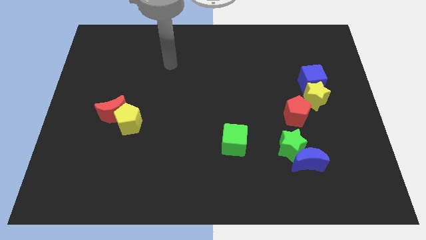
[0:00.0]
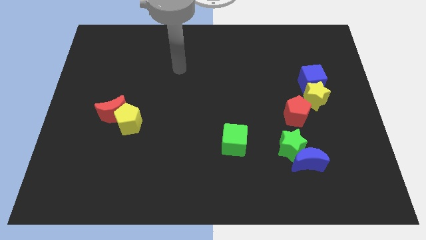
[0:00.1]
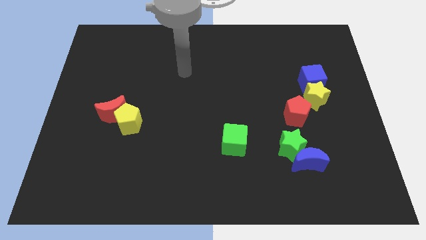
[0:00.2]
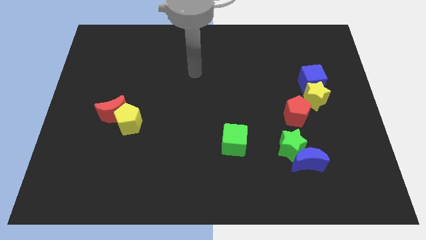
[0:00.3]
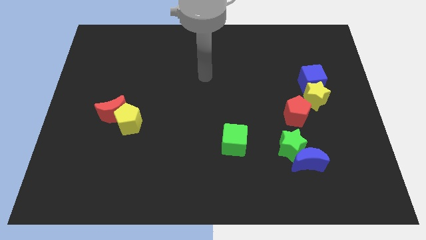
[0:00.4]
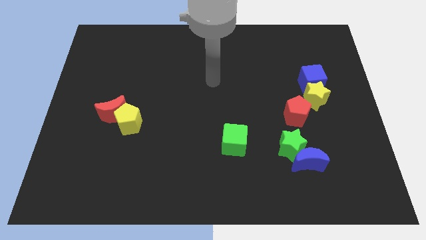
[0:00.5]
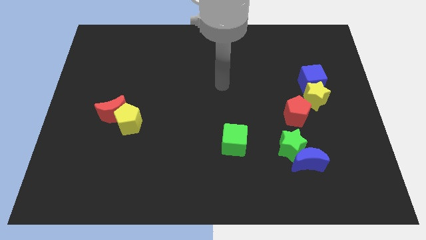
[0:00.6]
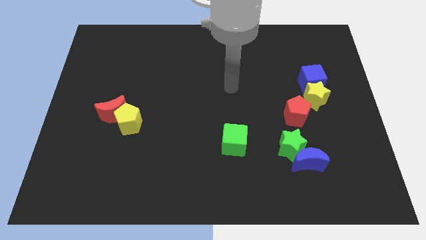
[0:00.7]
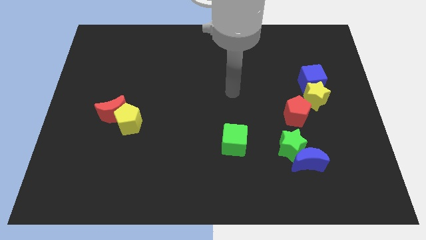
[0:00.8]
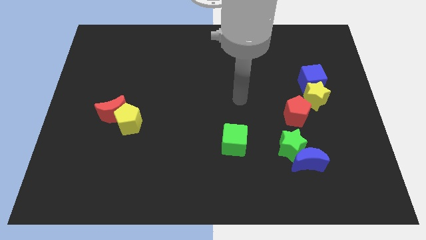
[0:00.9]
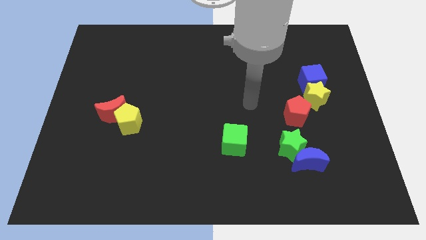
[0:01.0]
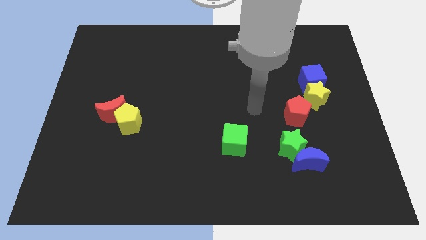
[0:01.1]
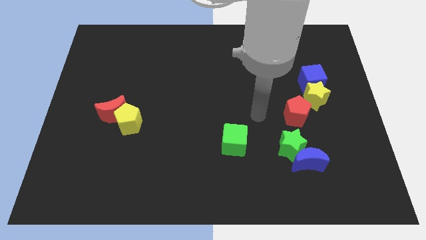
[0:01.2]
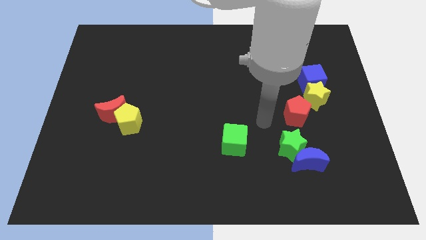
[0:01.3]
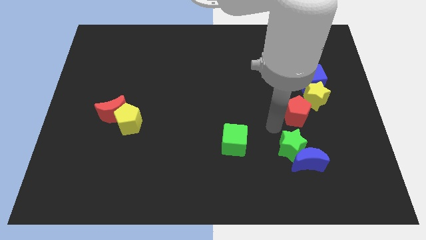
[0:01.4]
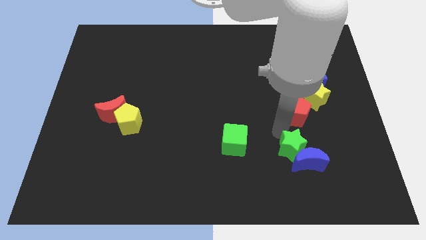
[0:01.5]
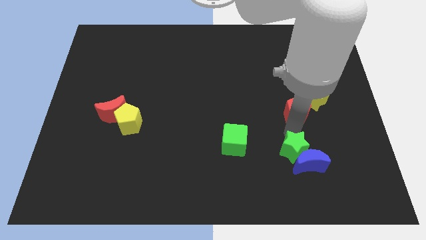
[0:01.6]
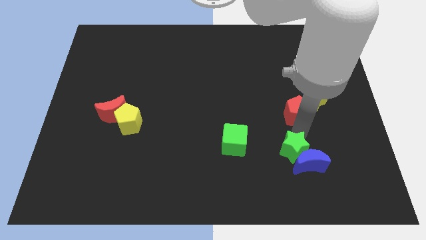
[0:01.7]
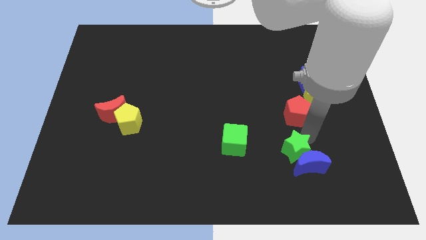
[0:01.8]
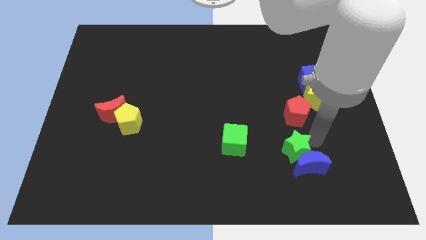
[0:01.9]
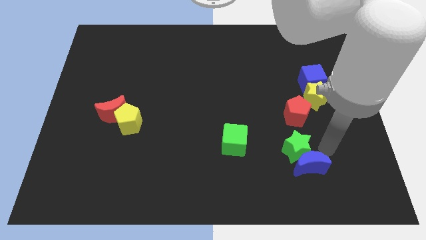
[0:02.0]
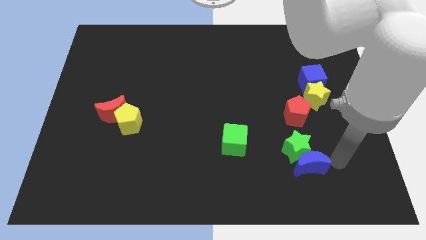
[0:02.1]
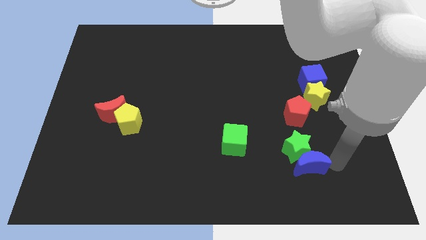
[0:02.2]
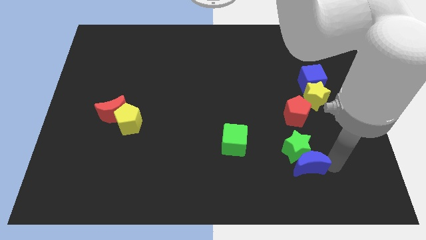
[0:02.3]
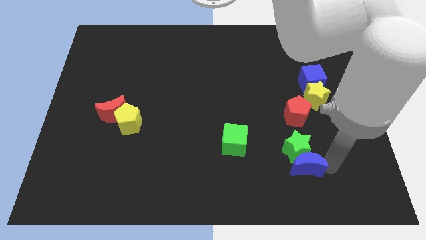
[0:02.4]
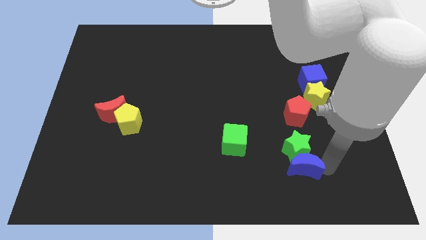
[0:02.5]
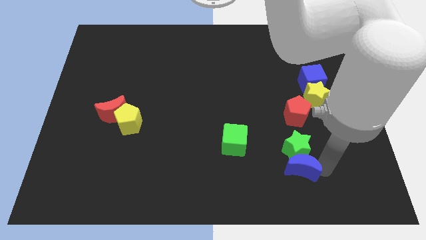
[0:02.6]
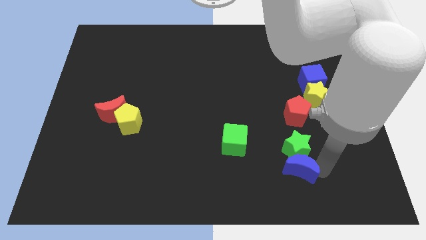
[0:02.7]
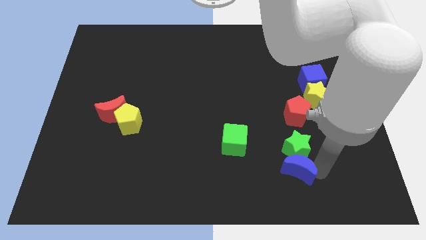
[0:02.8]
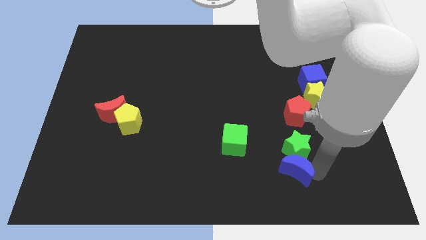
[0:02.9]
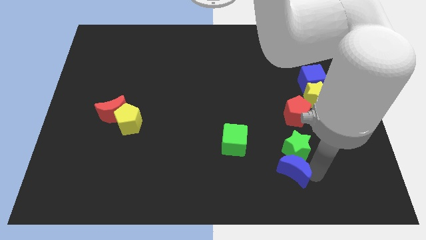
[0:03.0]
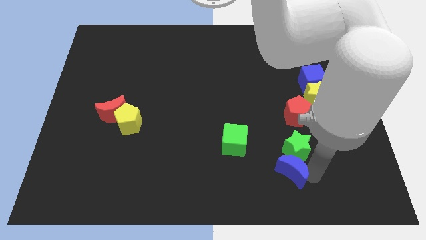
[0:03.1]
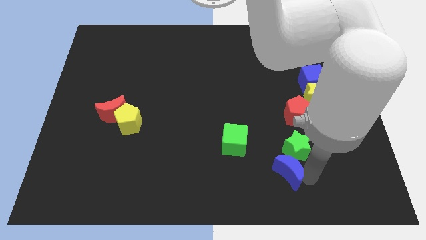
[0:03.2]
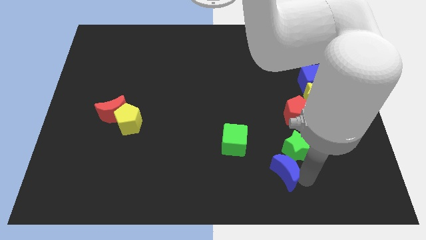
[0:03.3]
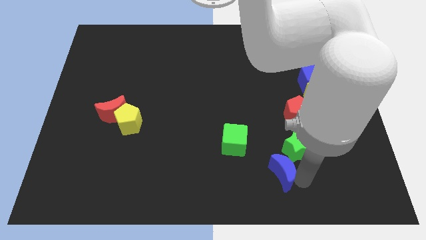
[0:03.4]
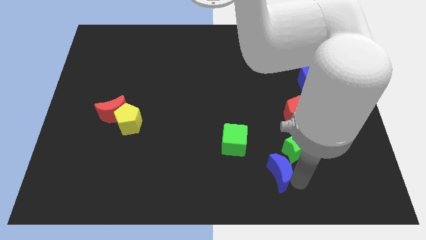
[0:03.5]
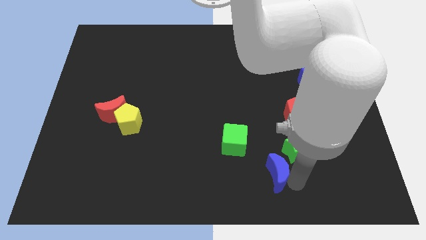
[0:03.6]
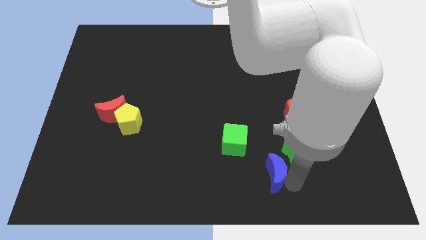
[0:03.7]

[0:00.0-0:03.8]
slide the blue moon slightly left

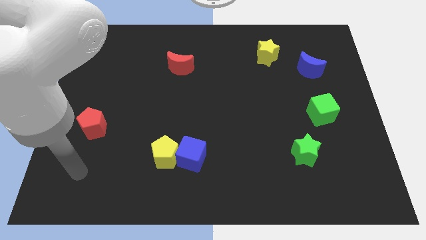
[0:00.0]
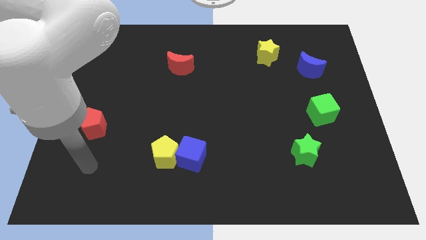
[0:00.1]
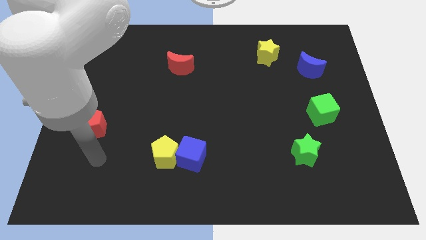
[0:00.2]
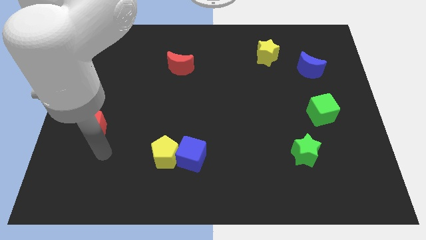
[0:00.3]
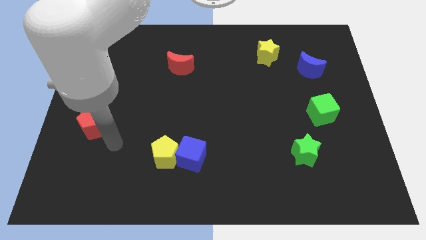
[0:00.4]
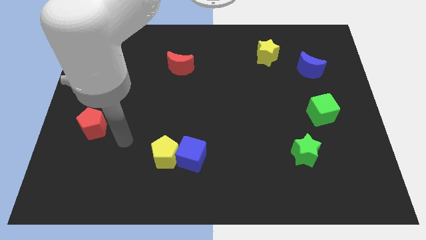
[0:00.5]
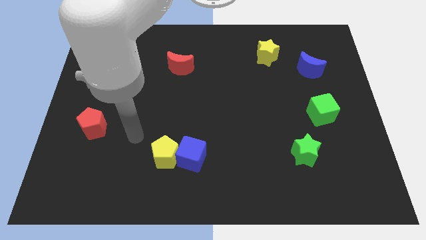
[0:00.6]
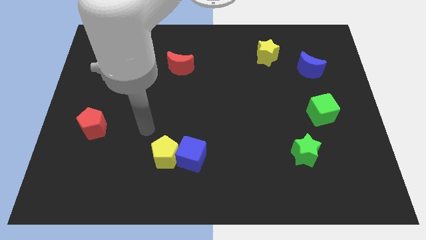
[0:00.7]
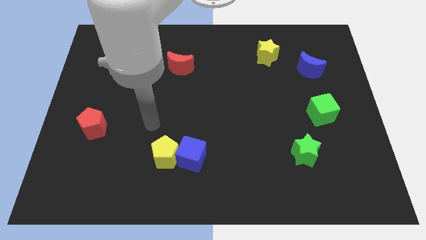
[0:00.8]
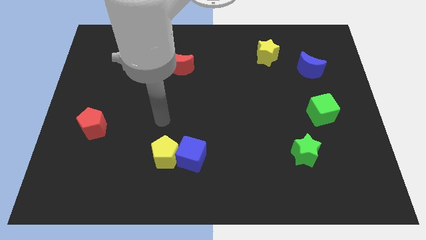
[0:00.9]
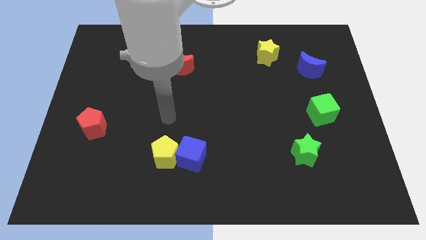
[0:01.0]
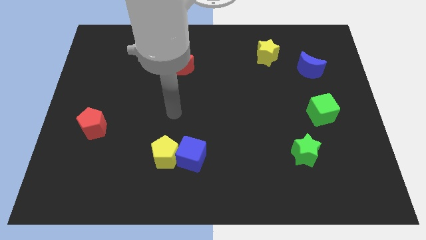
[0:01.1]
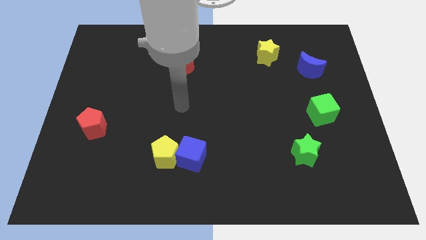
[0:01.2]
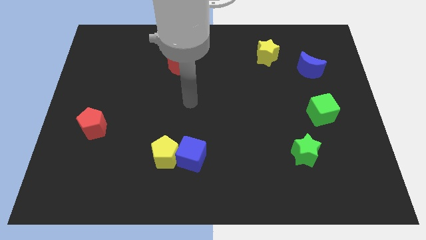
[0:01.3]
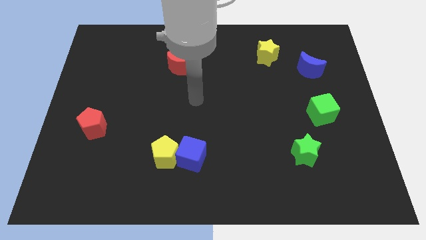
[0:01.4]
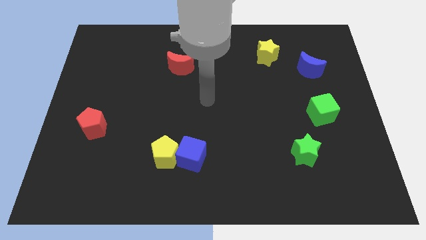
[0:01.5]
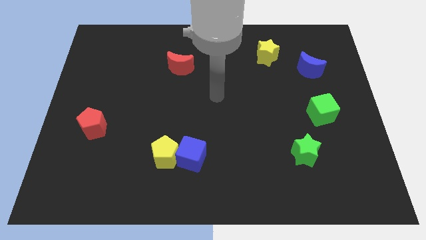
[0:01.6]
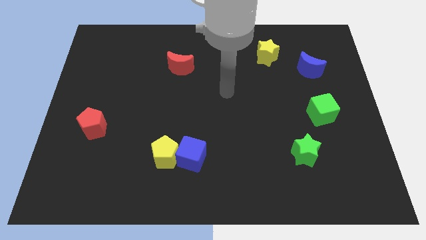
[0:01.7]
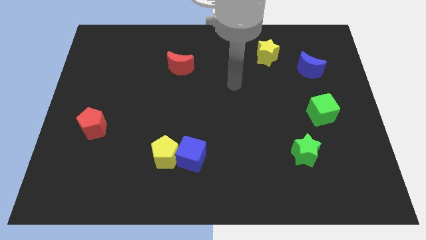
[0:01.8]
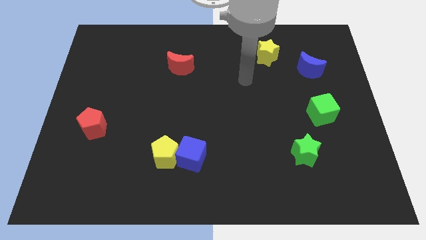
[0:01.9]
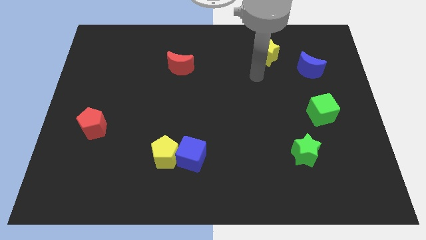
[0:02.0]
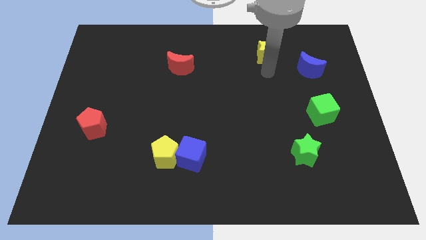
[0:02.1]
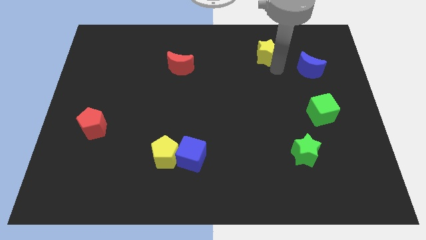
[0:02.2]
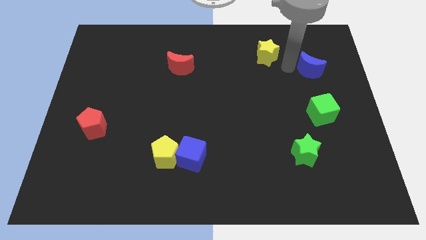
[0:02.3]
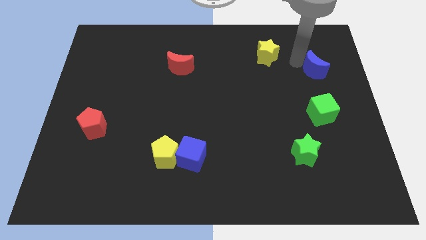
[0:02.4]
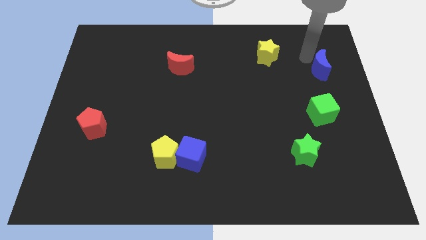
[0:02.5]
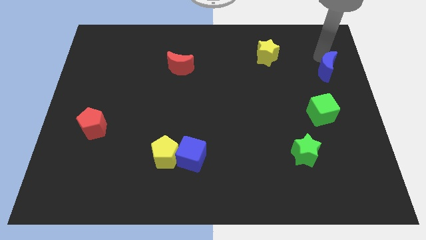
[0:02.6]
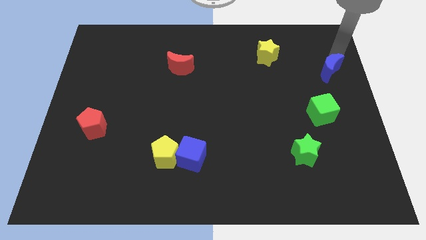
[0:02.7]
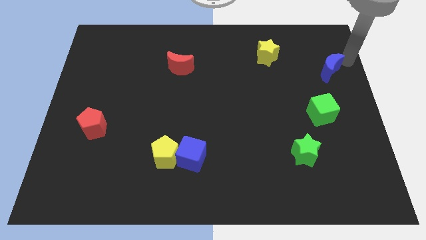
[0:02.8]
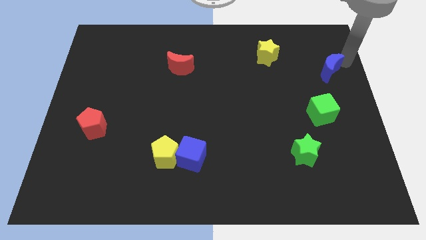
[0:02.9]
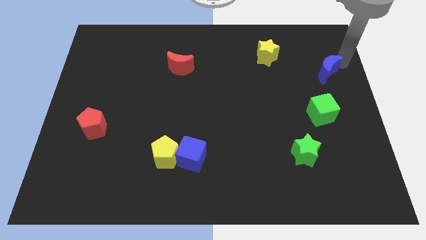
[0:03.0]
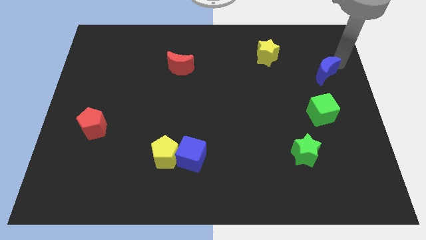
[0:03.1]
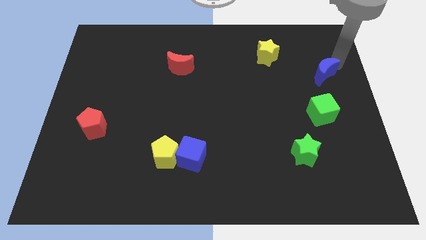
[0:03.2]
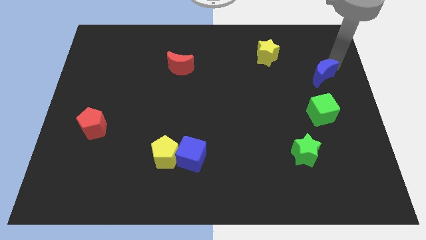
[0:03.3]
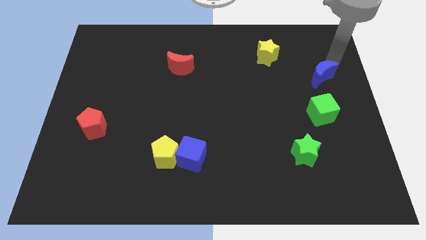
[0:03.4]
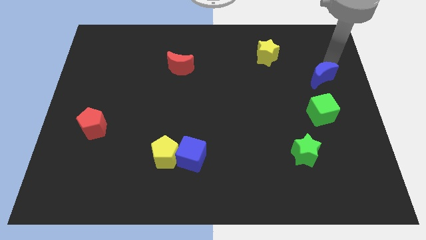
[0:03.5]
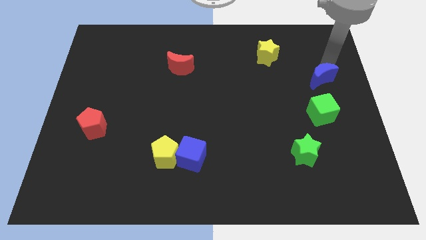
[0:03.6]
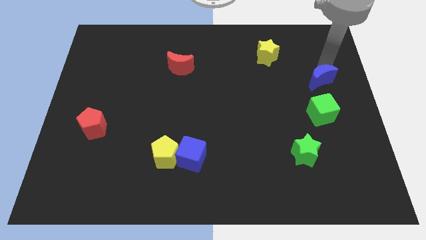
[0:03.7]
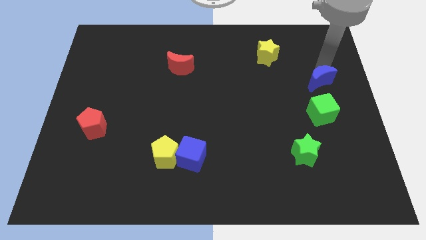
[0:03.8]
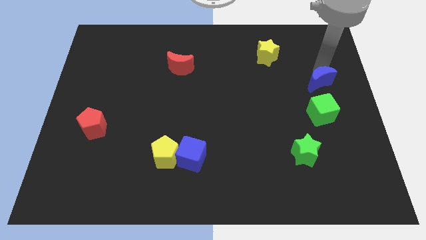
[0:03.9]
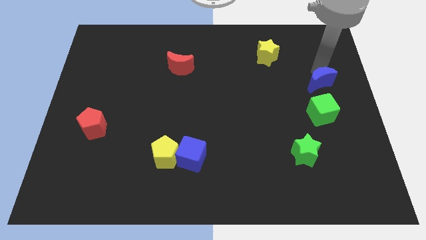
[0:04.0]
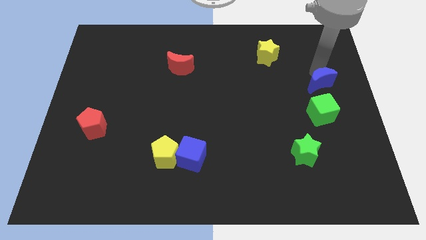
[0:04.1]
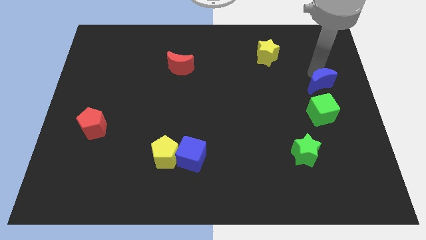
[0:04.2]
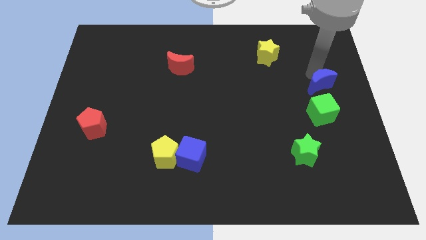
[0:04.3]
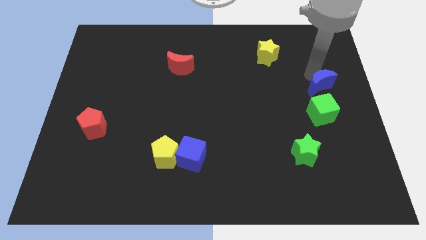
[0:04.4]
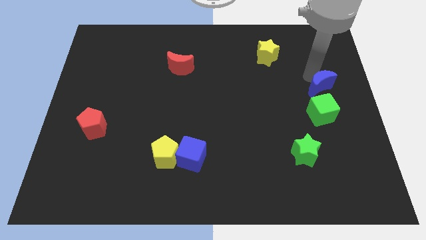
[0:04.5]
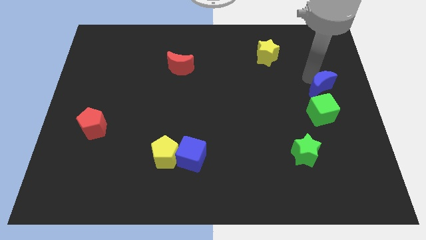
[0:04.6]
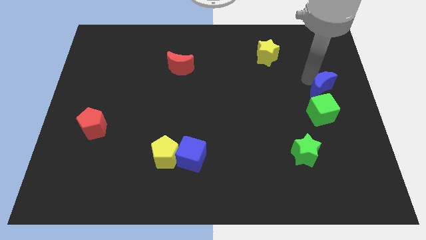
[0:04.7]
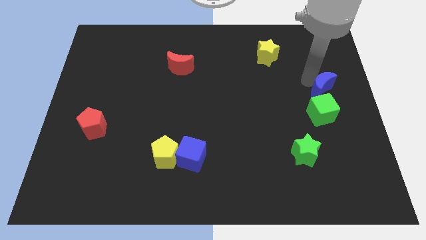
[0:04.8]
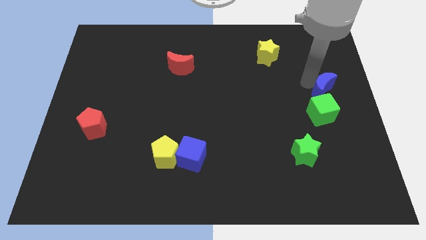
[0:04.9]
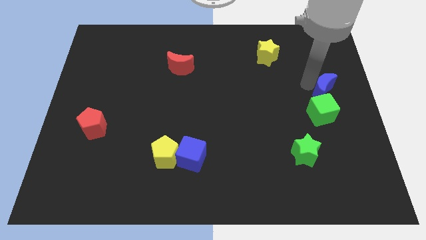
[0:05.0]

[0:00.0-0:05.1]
slightly slide the blue moon down
